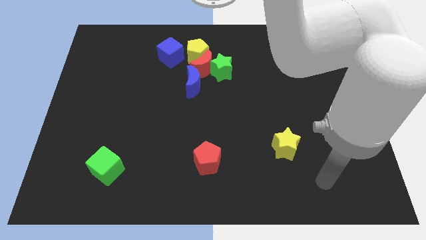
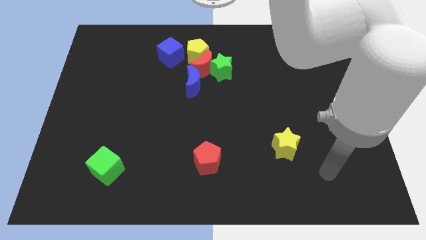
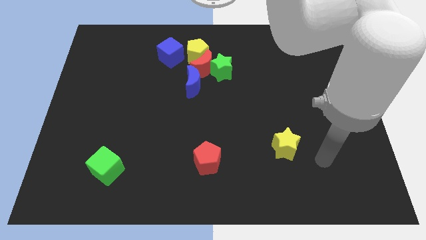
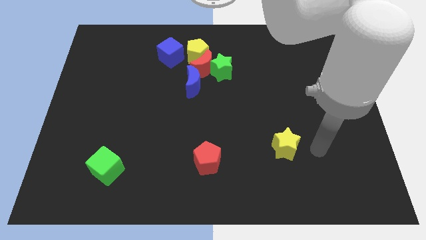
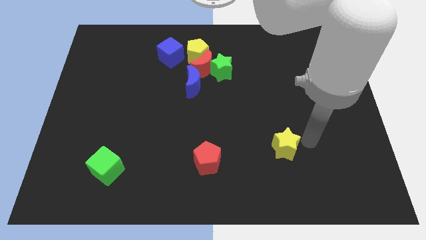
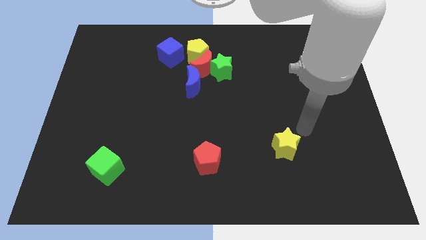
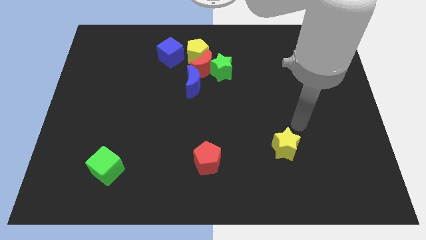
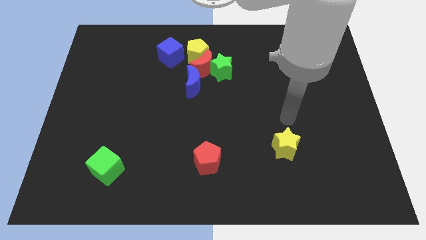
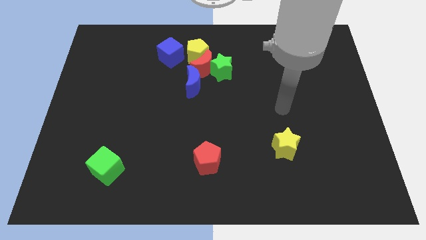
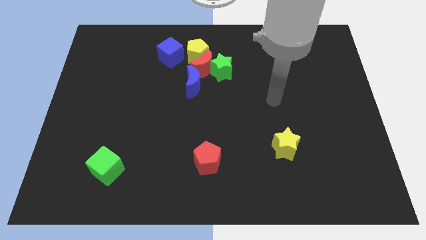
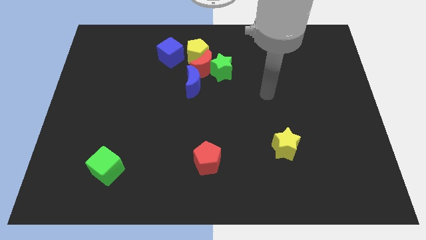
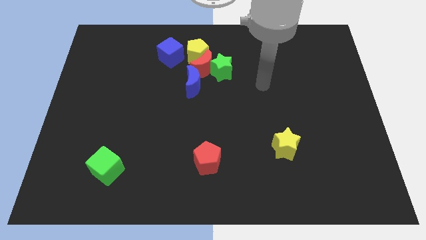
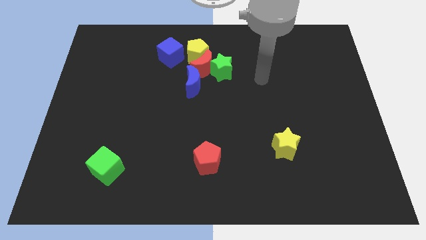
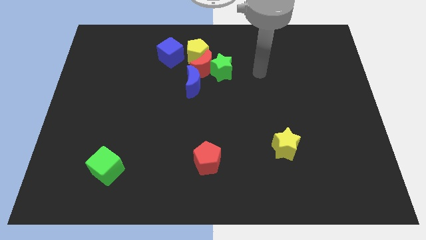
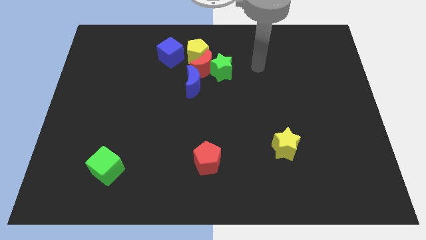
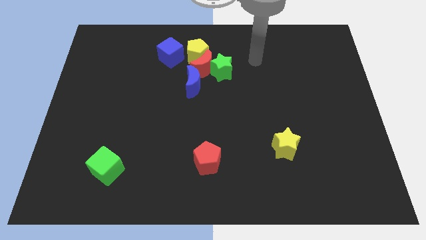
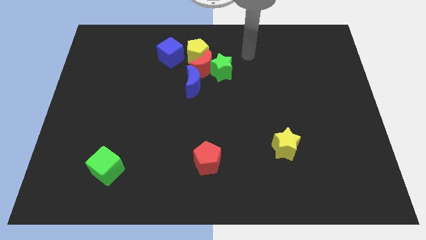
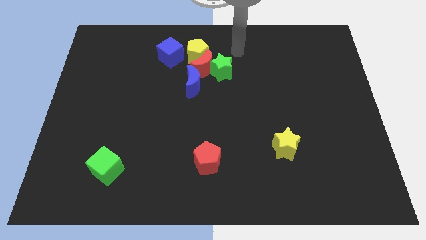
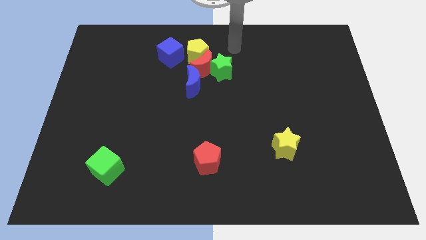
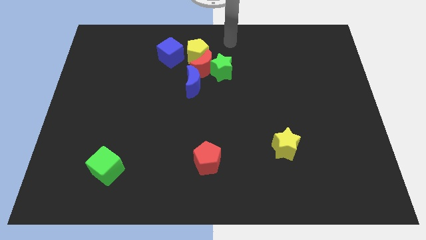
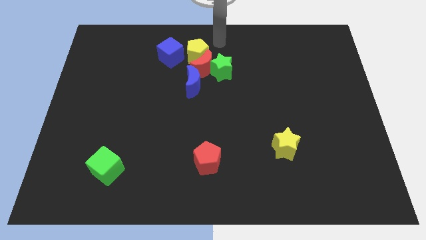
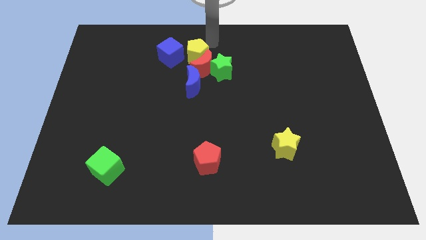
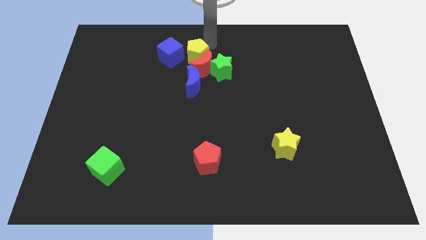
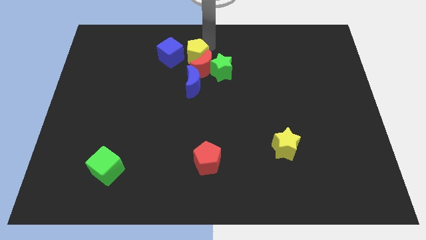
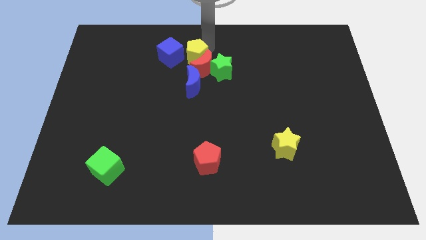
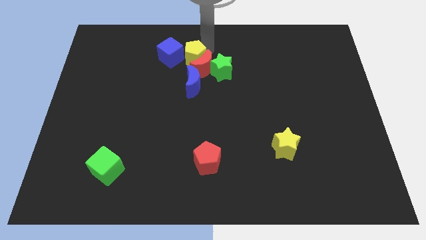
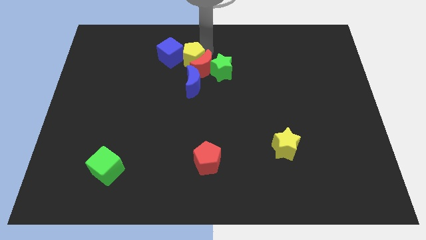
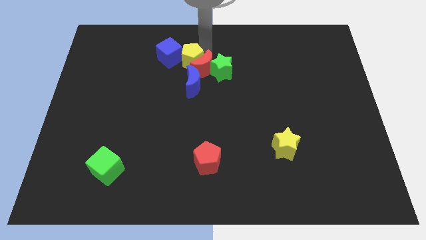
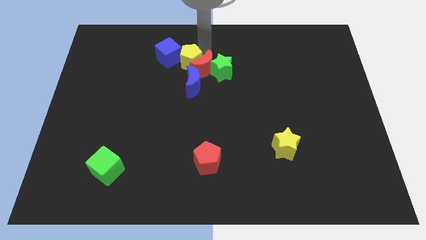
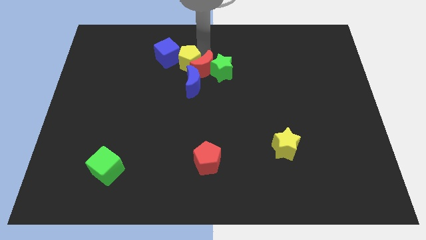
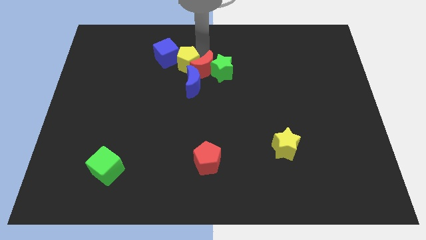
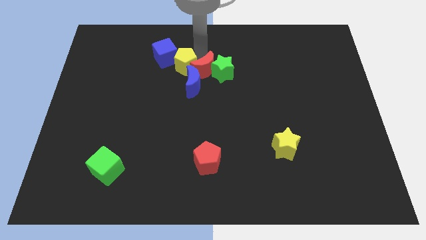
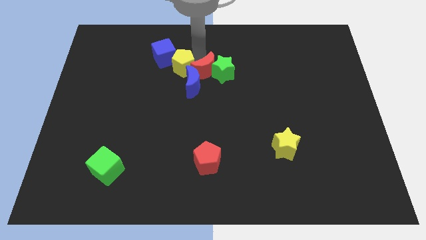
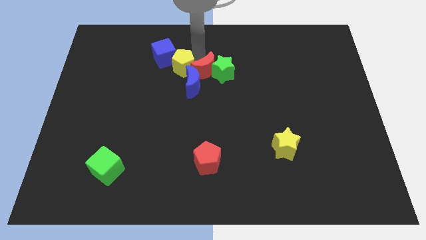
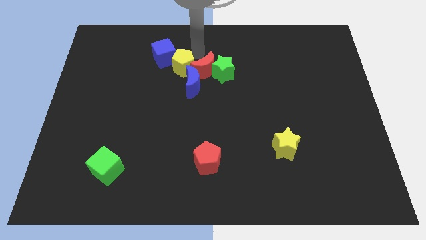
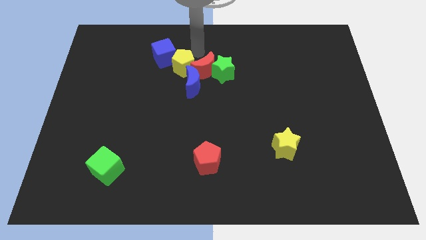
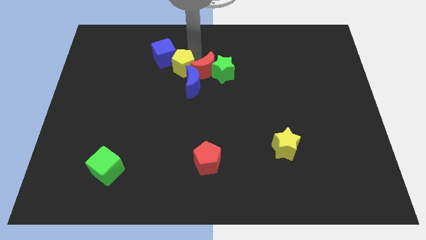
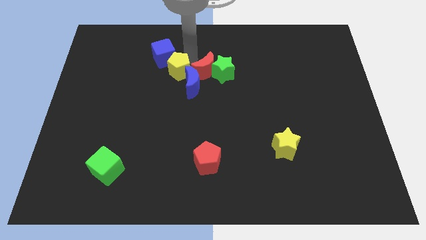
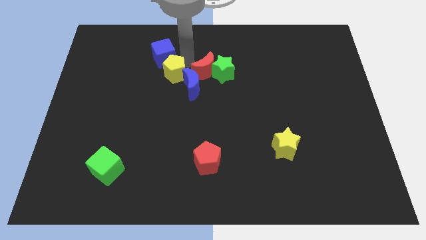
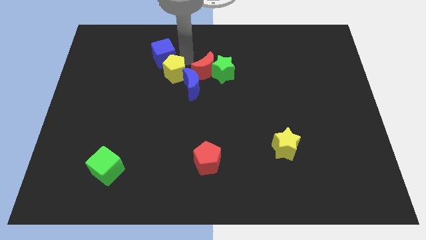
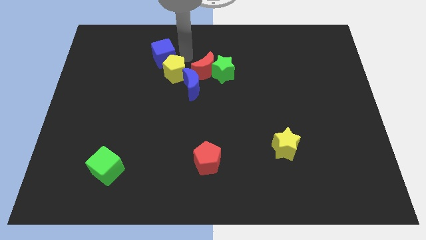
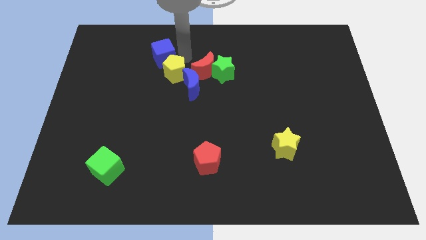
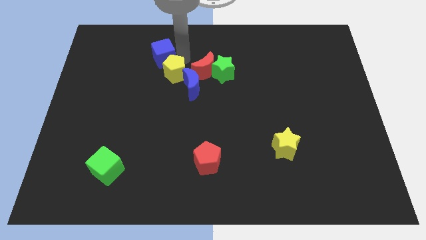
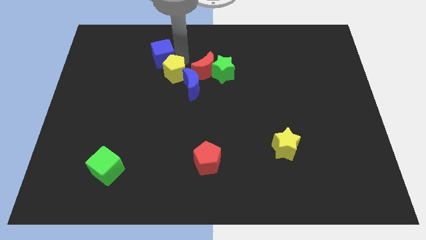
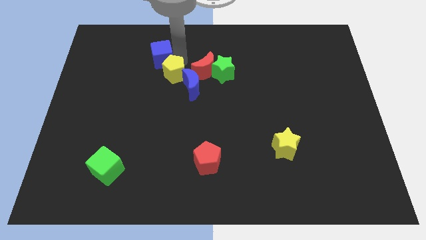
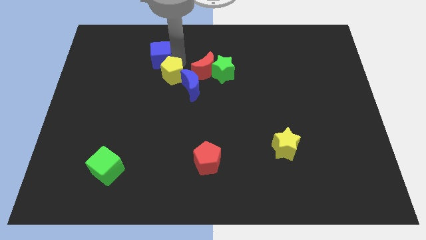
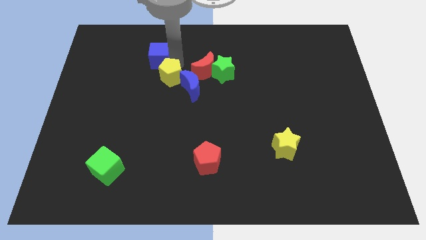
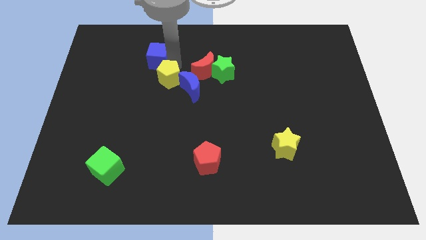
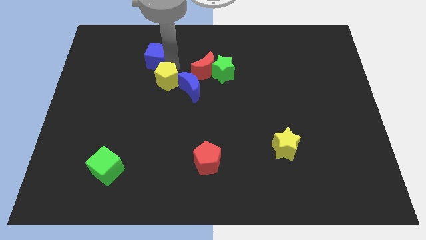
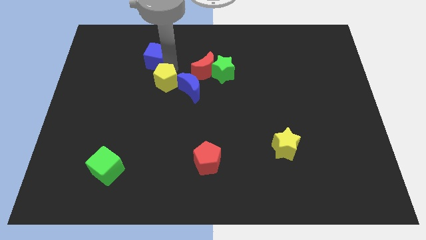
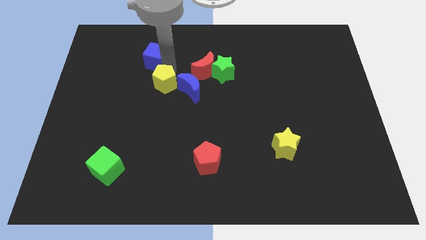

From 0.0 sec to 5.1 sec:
slightly slide the yellow pentagon downwards

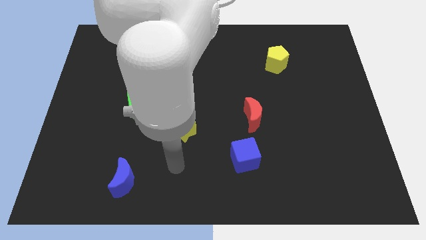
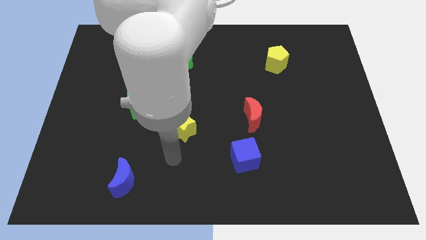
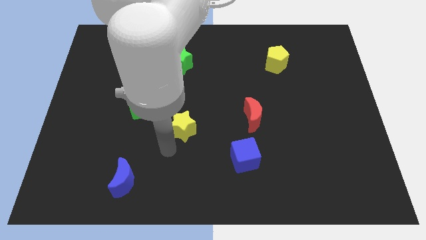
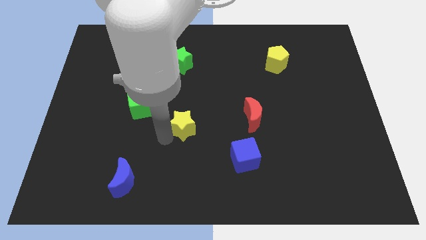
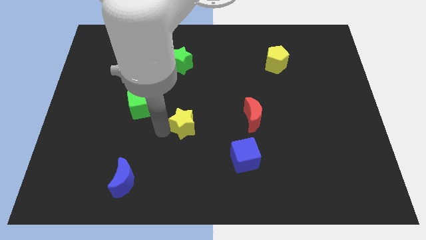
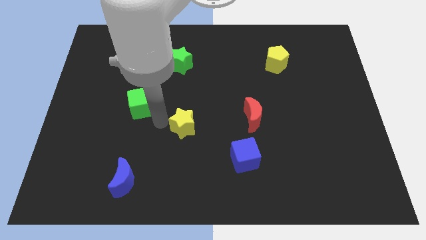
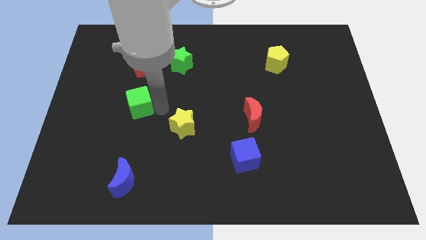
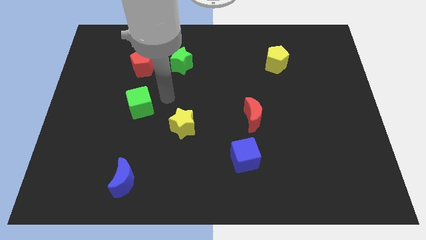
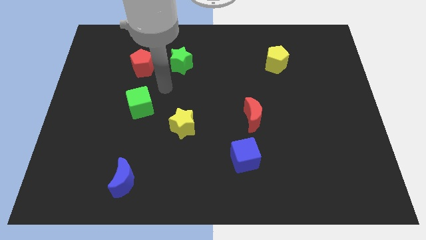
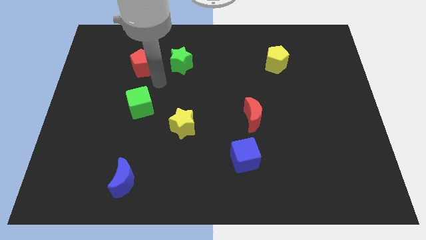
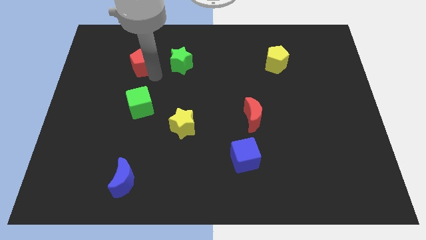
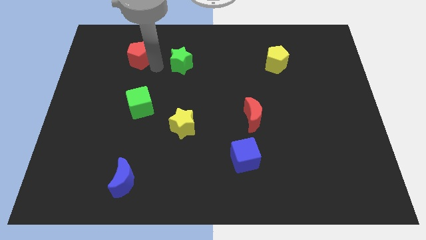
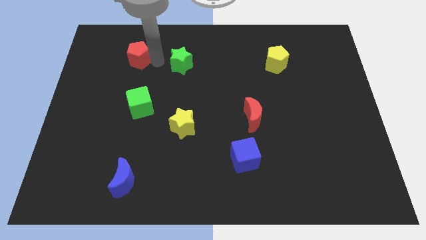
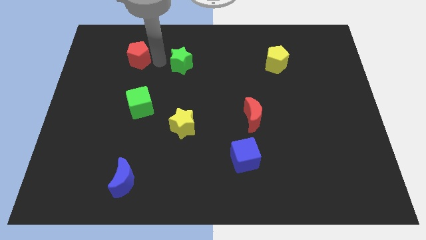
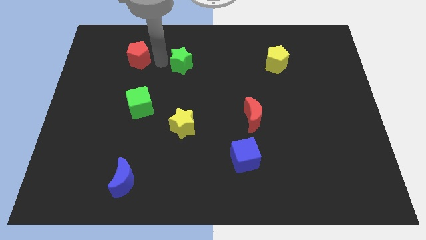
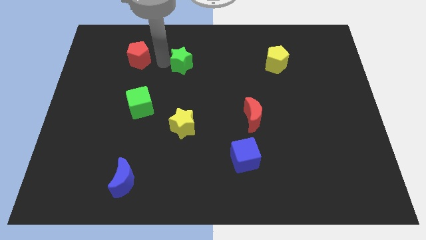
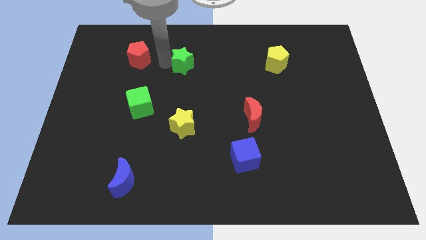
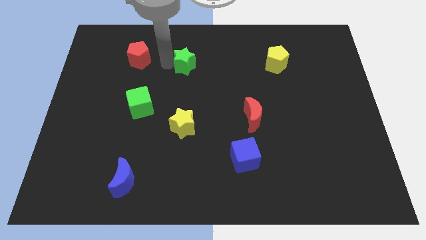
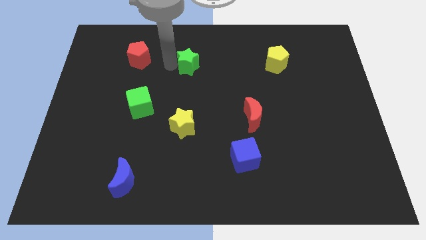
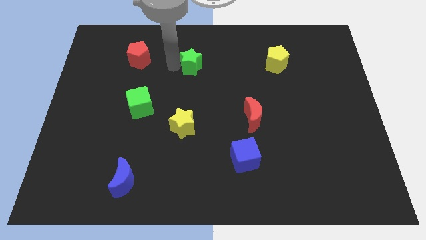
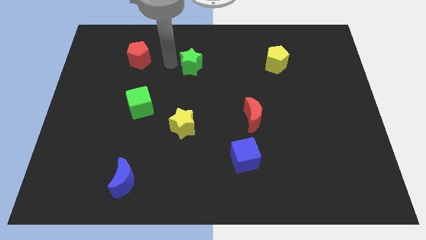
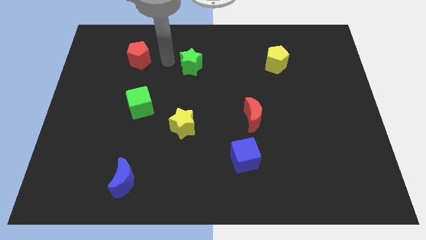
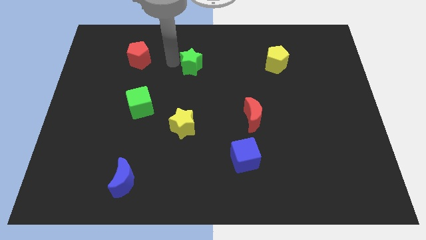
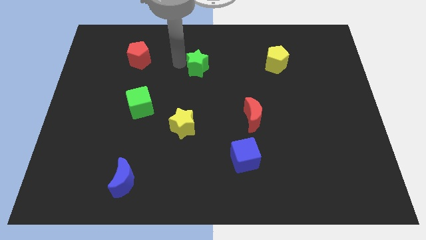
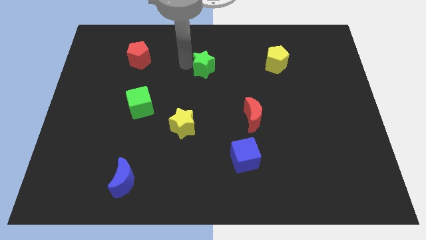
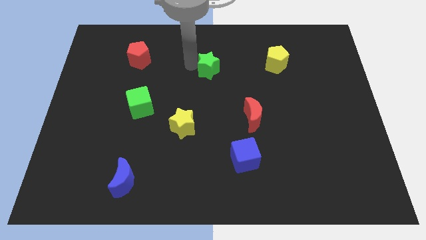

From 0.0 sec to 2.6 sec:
slightly slide the green star right
